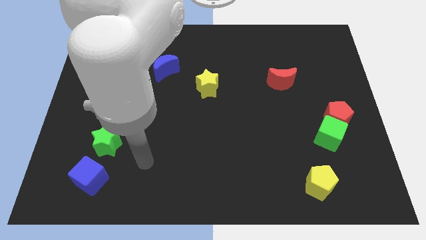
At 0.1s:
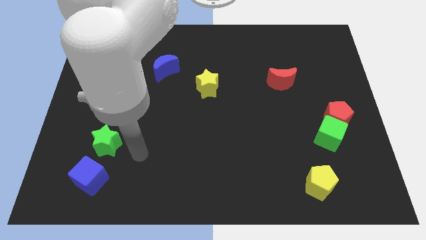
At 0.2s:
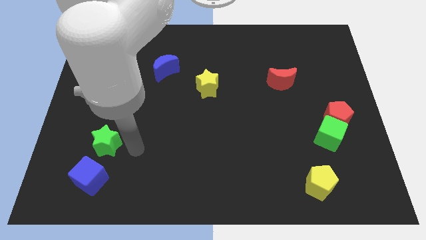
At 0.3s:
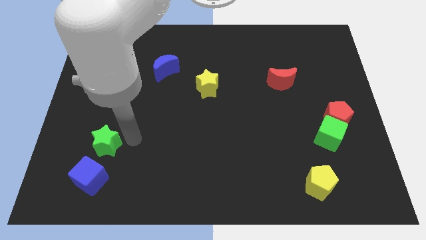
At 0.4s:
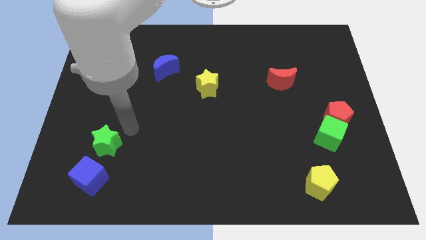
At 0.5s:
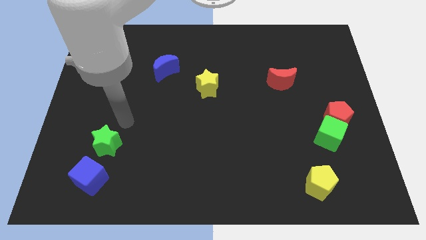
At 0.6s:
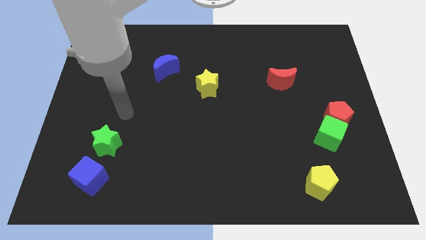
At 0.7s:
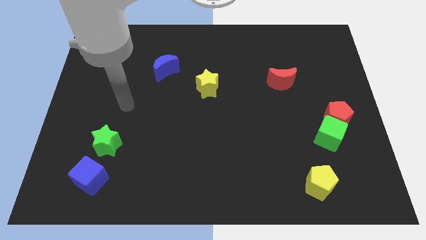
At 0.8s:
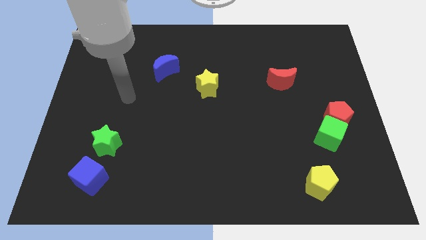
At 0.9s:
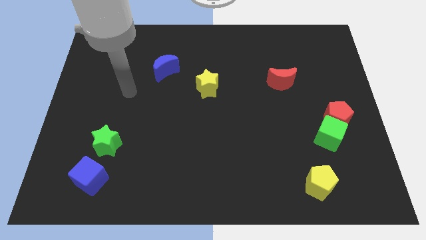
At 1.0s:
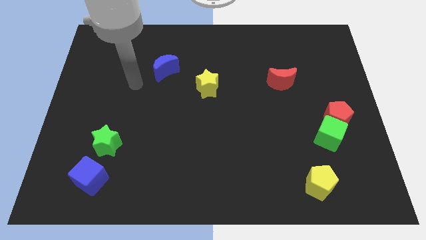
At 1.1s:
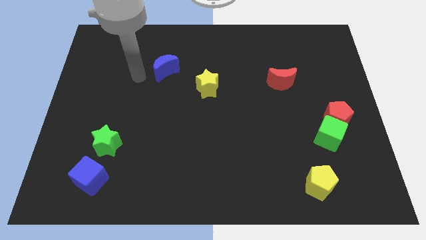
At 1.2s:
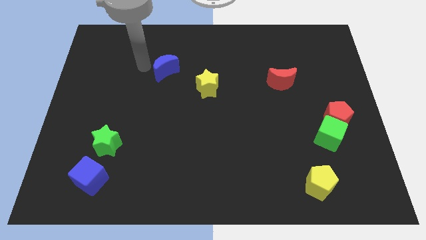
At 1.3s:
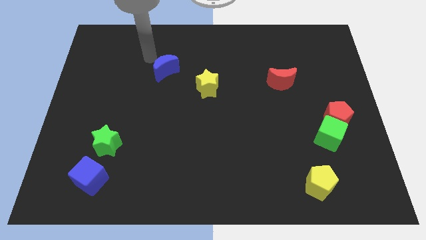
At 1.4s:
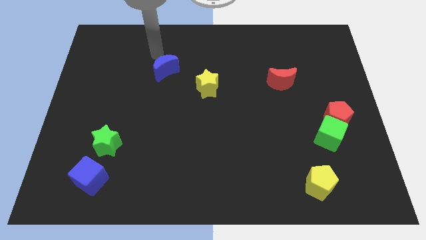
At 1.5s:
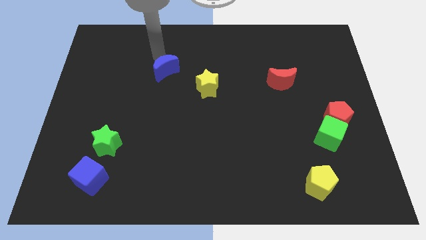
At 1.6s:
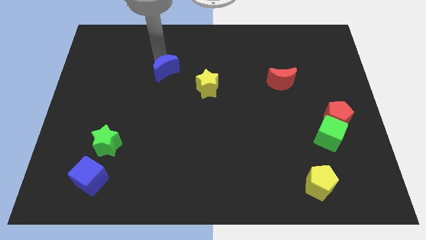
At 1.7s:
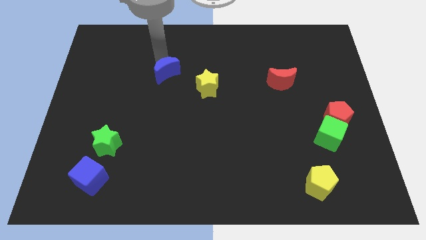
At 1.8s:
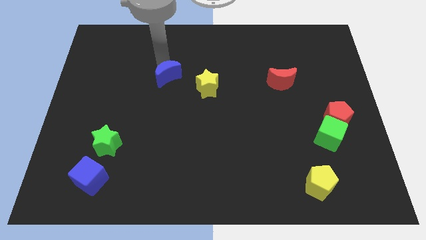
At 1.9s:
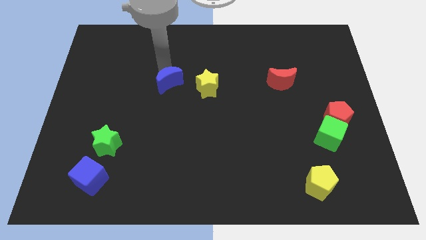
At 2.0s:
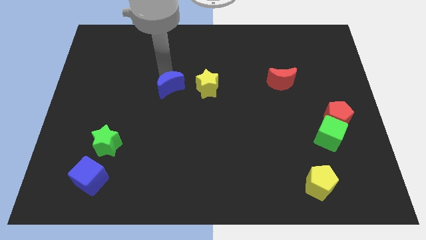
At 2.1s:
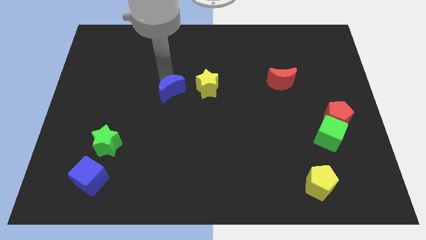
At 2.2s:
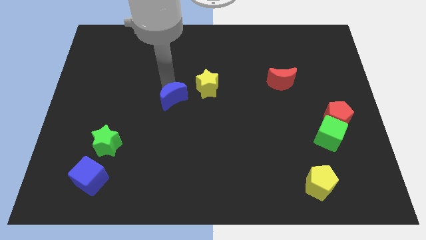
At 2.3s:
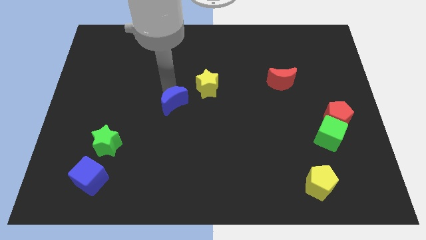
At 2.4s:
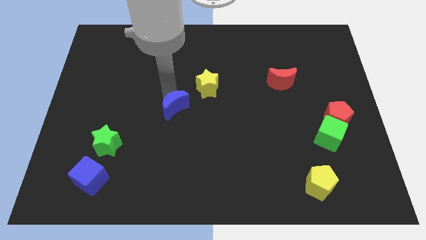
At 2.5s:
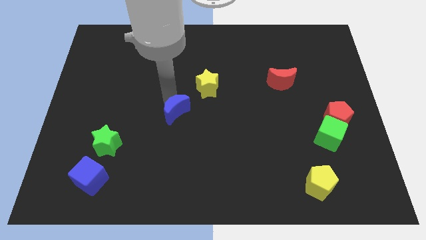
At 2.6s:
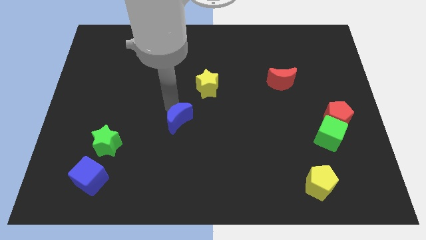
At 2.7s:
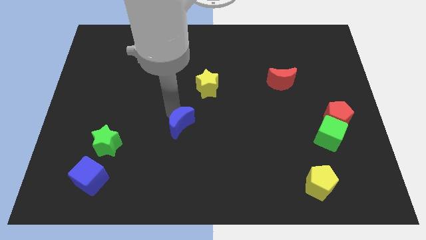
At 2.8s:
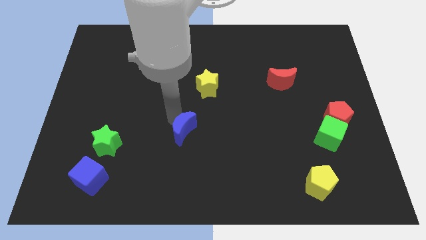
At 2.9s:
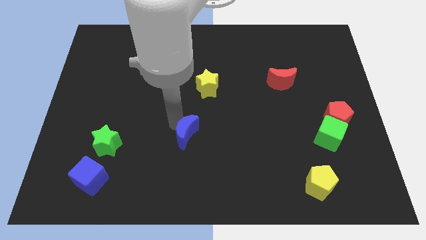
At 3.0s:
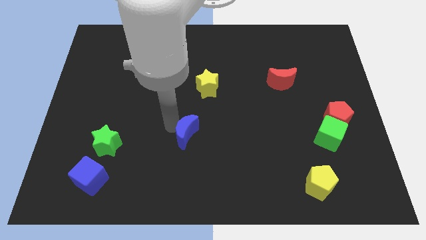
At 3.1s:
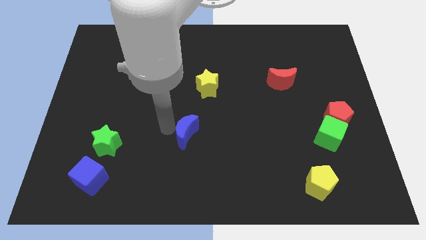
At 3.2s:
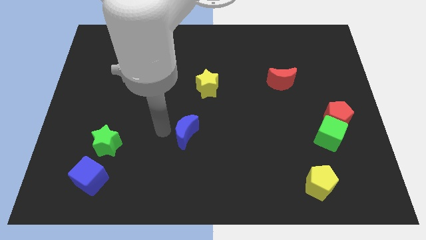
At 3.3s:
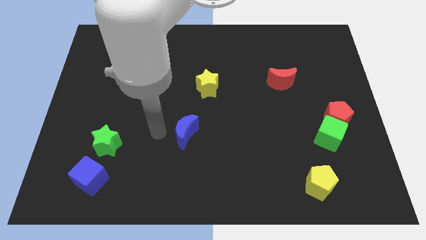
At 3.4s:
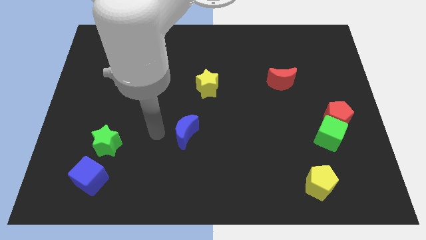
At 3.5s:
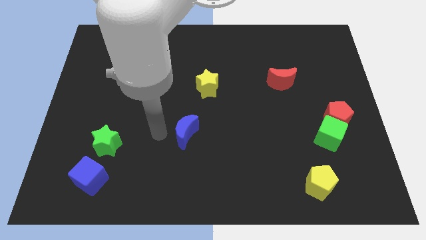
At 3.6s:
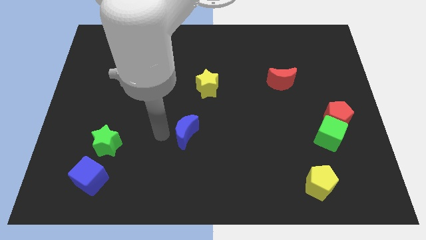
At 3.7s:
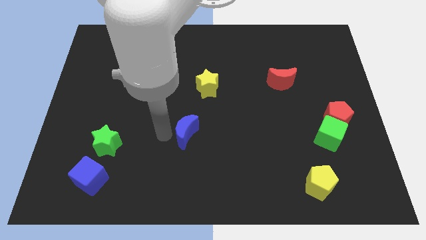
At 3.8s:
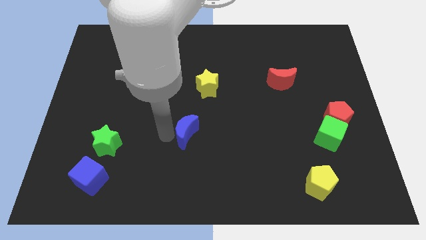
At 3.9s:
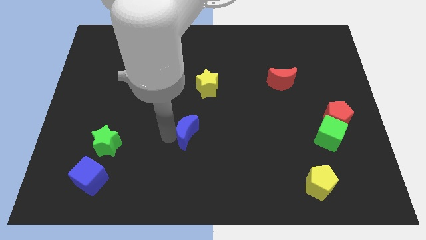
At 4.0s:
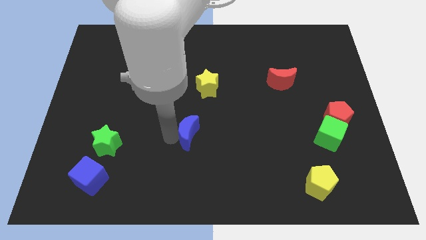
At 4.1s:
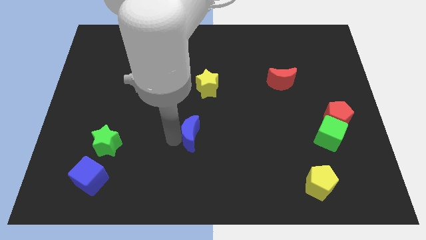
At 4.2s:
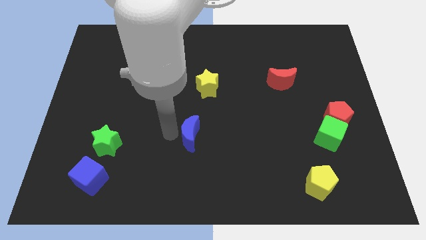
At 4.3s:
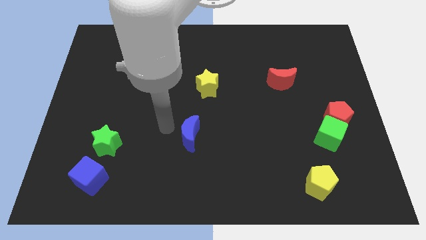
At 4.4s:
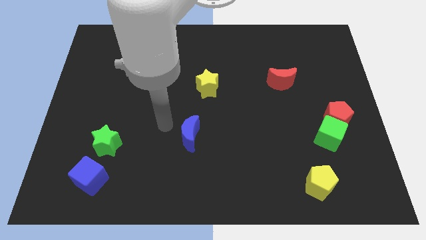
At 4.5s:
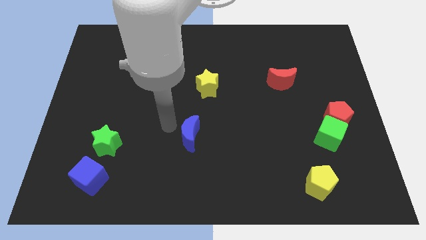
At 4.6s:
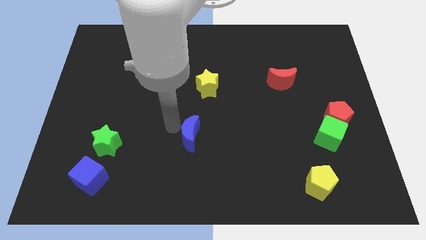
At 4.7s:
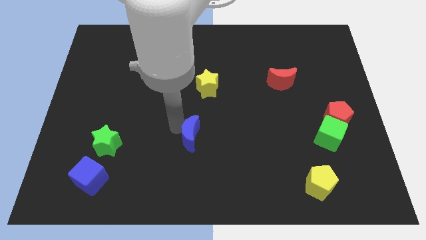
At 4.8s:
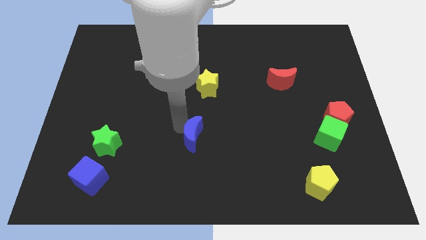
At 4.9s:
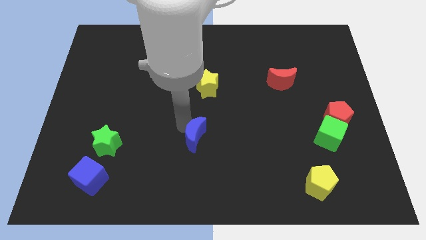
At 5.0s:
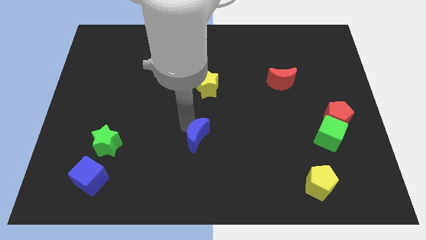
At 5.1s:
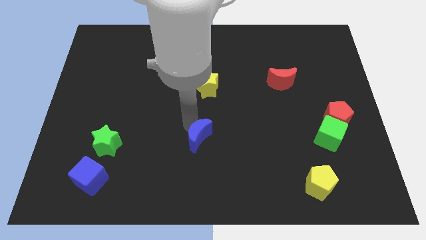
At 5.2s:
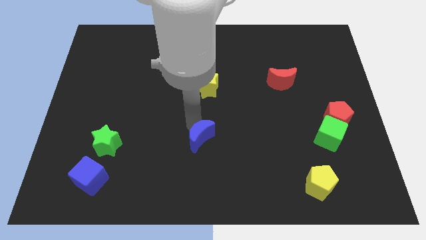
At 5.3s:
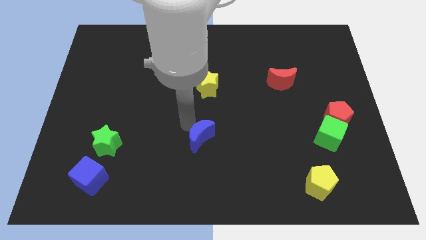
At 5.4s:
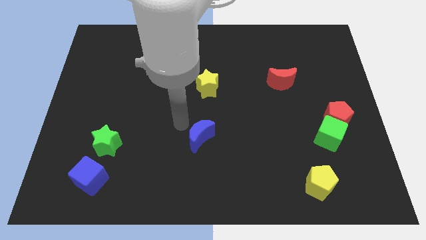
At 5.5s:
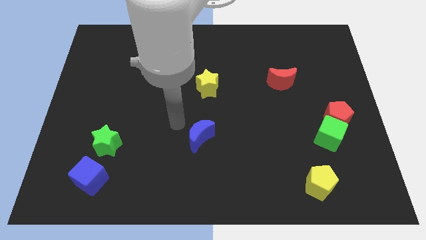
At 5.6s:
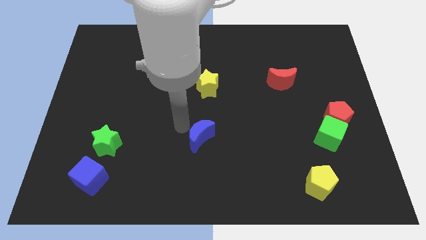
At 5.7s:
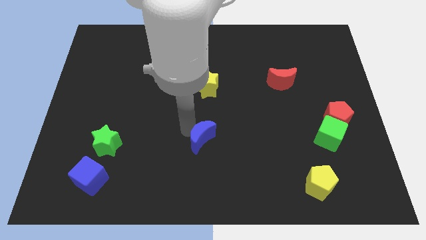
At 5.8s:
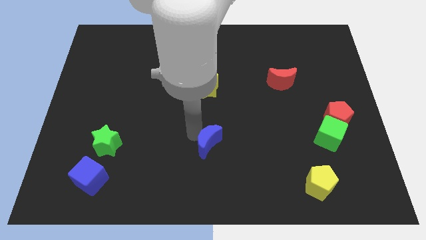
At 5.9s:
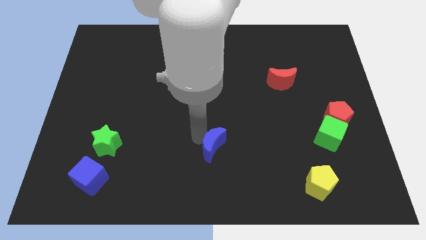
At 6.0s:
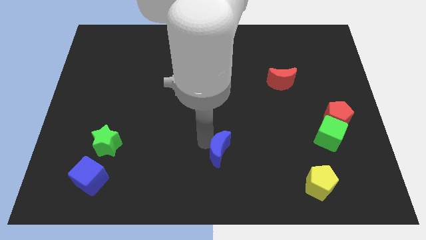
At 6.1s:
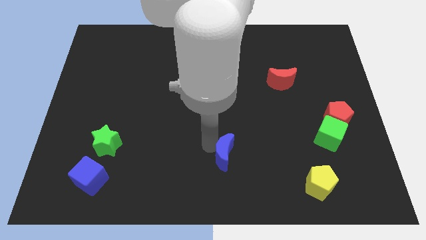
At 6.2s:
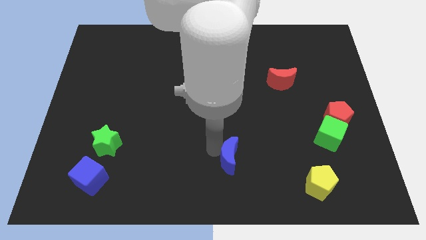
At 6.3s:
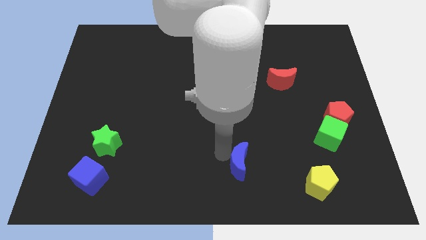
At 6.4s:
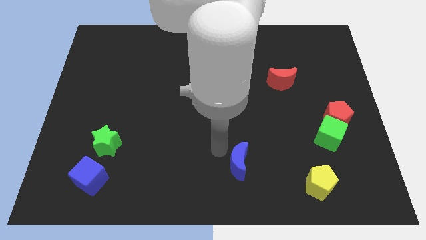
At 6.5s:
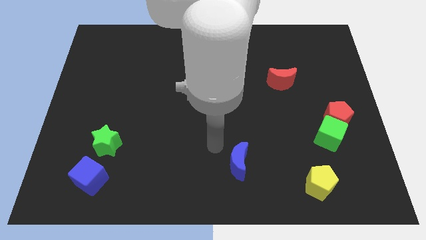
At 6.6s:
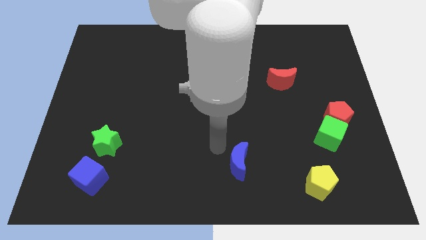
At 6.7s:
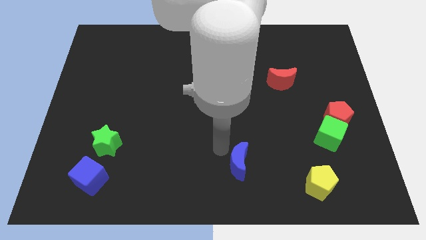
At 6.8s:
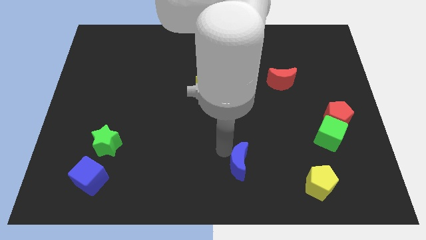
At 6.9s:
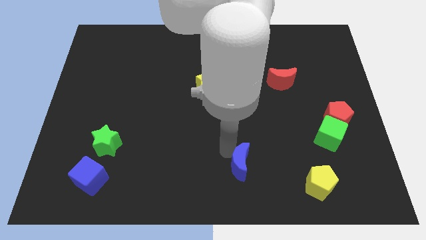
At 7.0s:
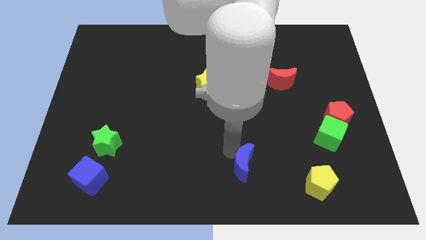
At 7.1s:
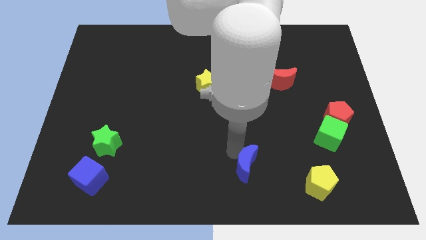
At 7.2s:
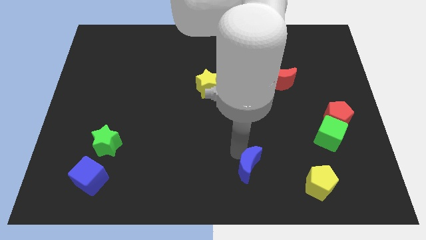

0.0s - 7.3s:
move the blue moon to the left of the yellow pentagon
